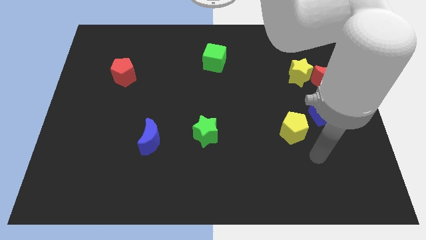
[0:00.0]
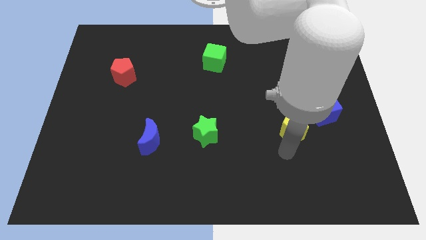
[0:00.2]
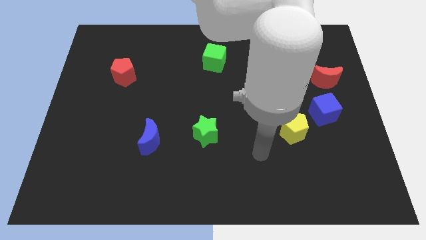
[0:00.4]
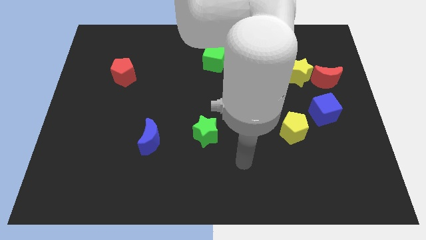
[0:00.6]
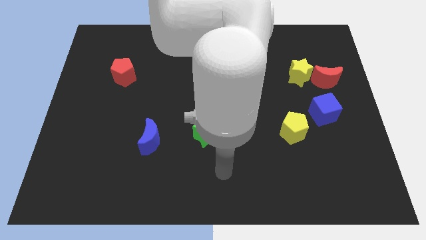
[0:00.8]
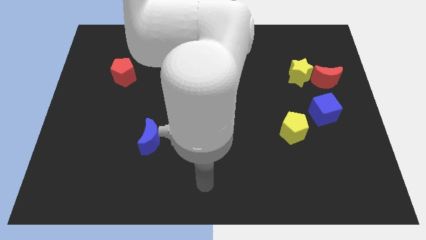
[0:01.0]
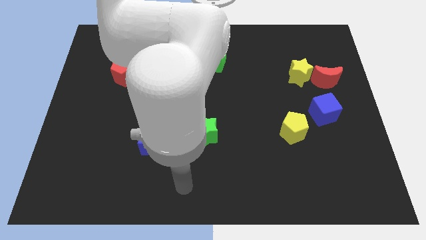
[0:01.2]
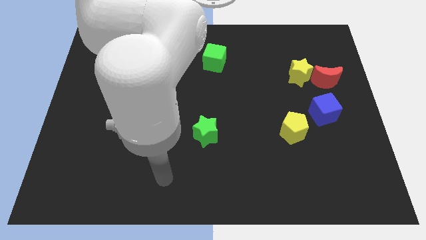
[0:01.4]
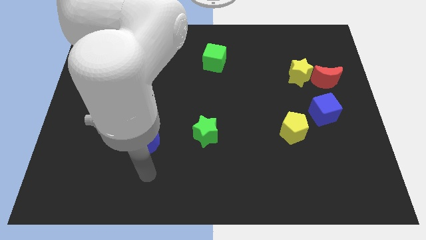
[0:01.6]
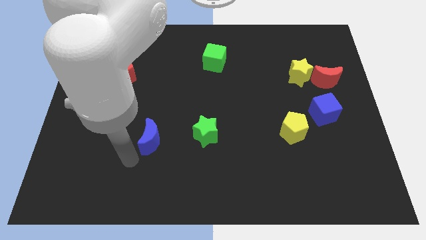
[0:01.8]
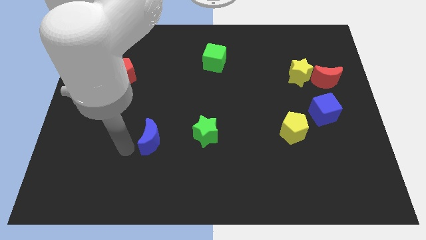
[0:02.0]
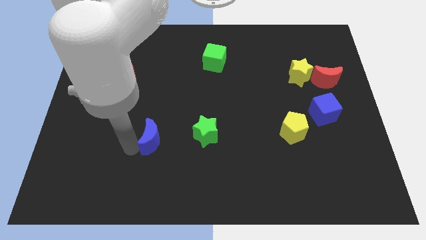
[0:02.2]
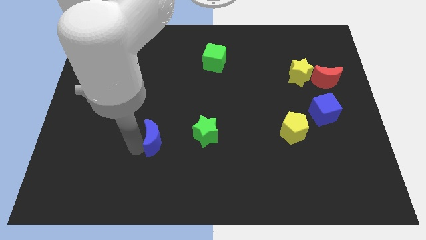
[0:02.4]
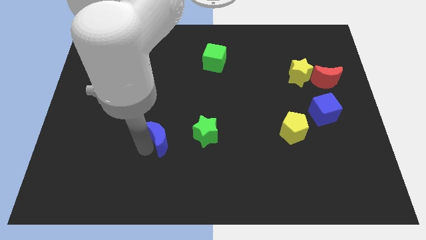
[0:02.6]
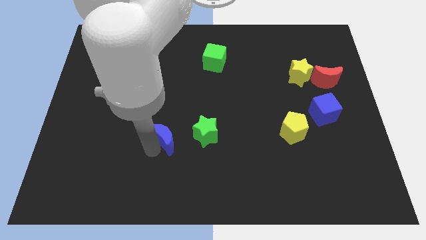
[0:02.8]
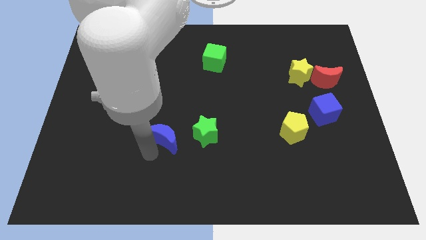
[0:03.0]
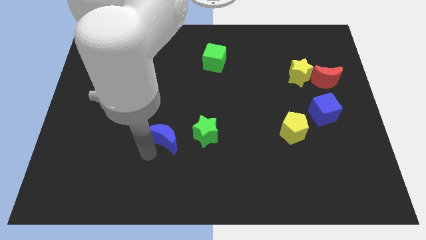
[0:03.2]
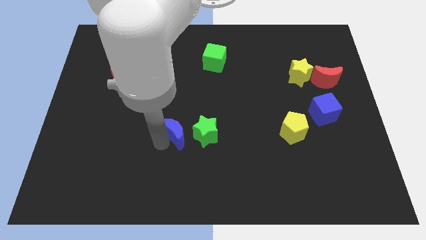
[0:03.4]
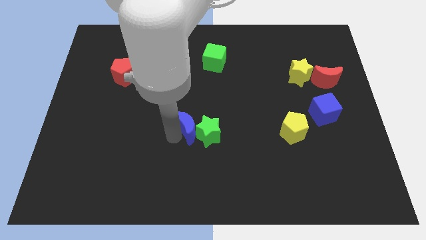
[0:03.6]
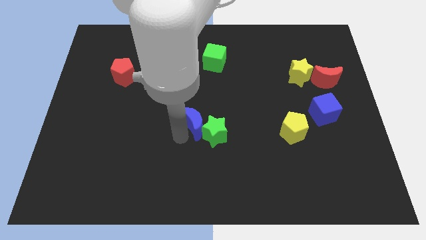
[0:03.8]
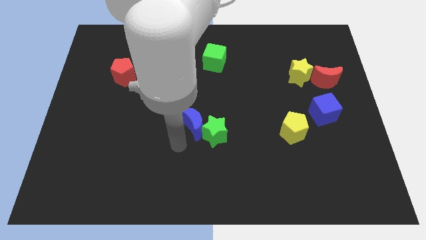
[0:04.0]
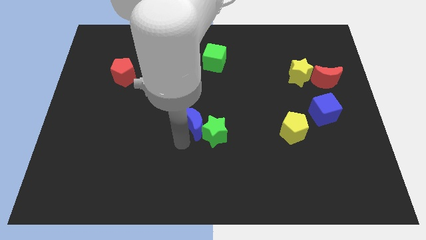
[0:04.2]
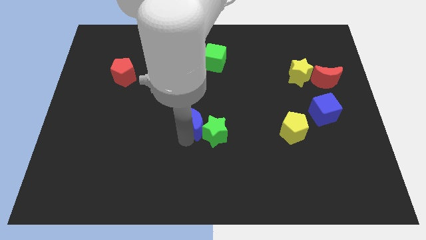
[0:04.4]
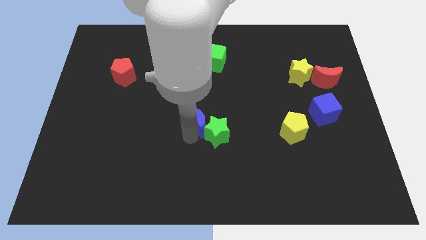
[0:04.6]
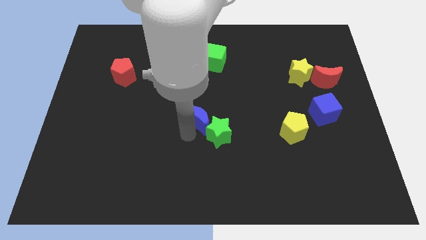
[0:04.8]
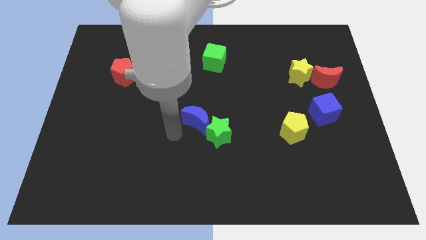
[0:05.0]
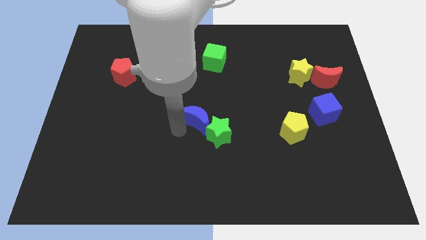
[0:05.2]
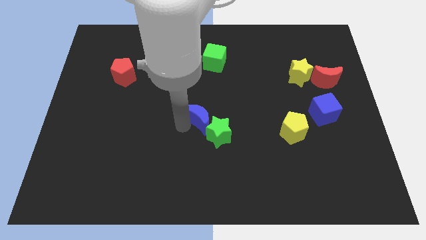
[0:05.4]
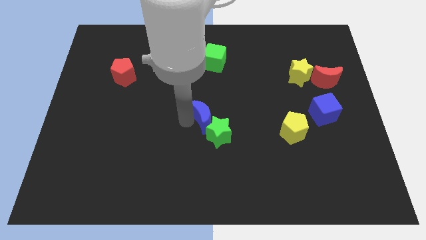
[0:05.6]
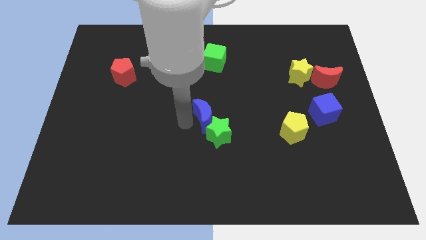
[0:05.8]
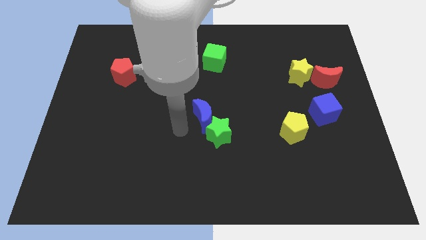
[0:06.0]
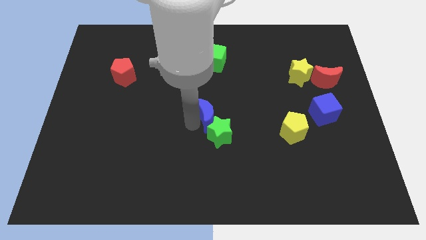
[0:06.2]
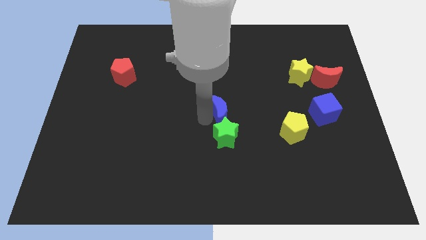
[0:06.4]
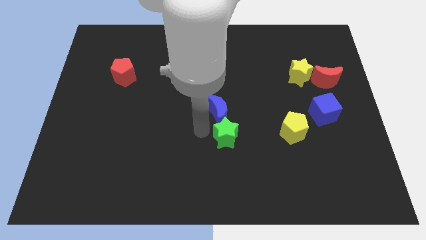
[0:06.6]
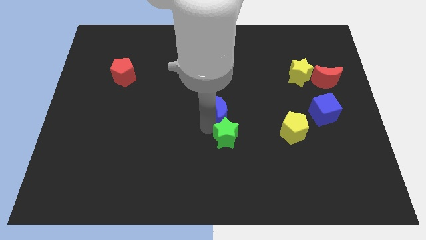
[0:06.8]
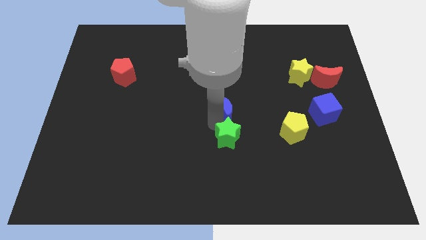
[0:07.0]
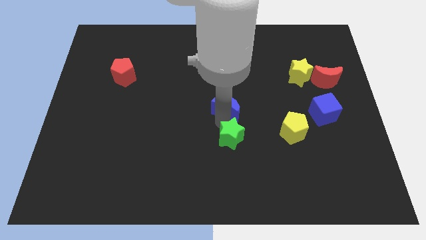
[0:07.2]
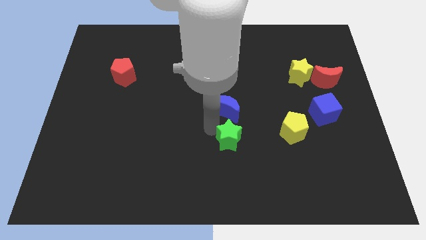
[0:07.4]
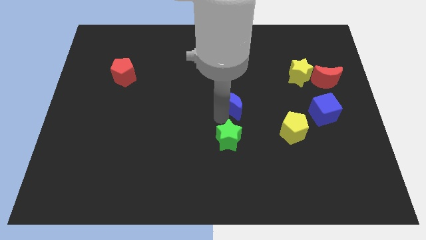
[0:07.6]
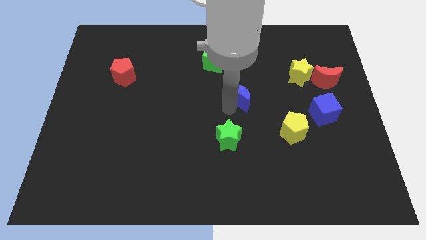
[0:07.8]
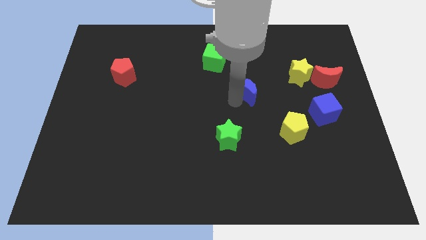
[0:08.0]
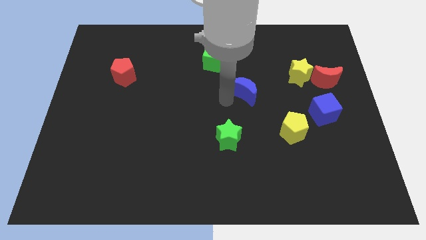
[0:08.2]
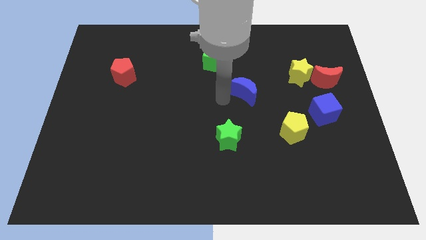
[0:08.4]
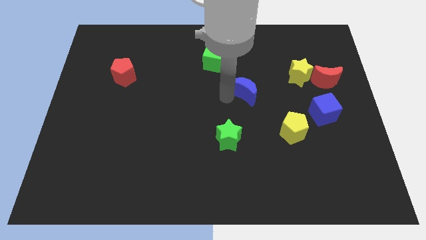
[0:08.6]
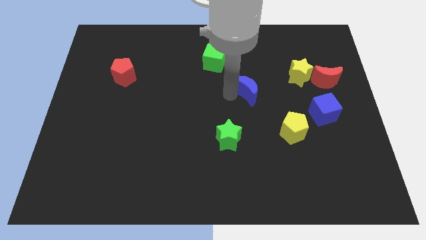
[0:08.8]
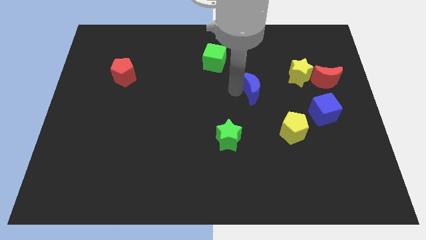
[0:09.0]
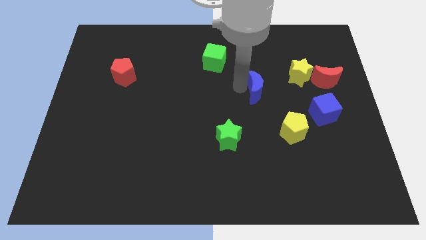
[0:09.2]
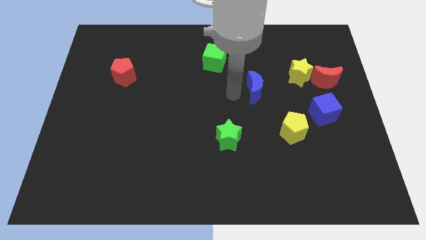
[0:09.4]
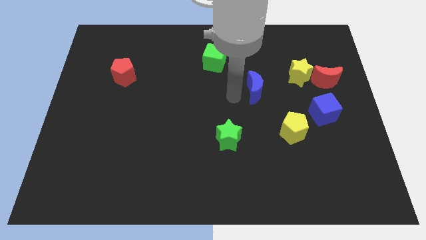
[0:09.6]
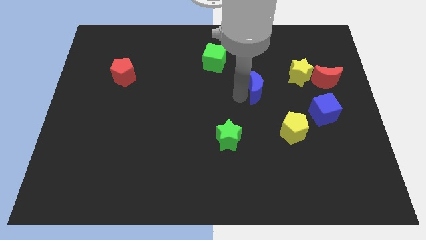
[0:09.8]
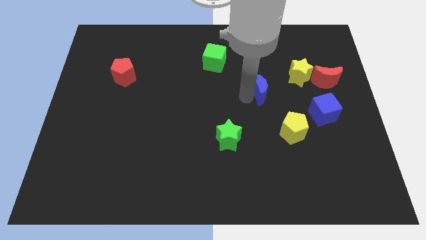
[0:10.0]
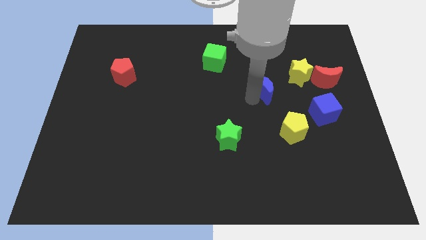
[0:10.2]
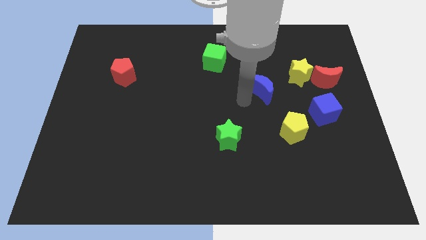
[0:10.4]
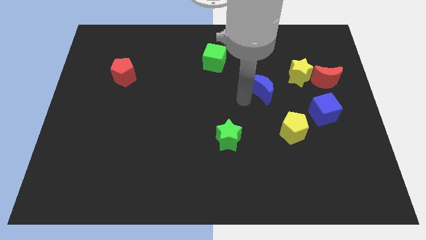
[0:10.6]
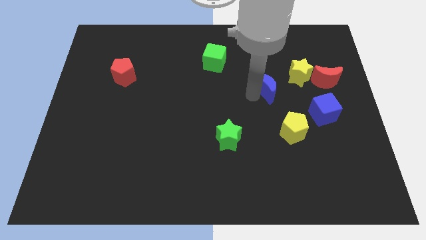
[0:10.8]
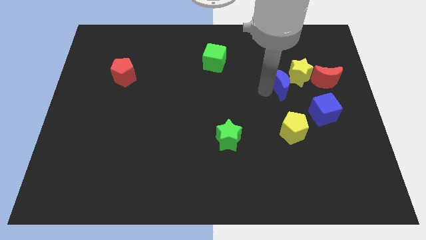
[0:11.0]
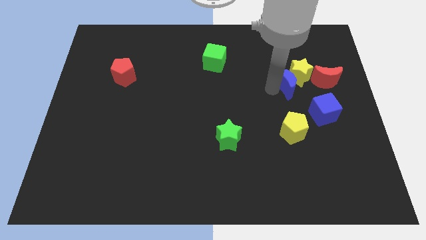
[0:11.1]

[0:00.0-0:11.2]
push the blue moon to the yellow star

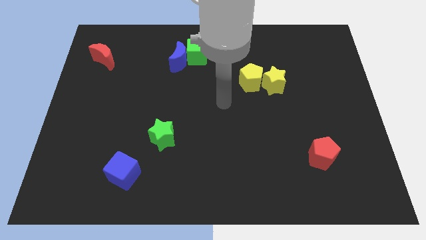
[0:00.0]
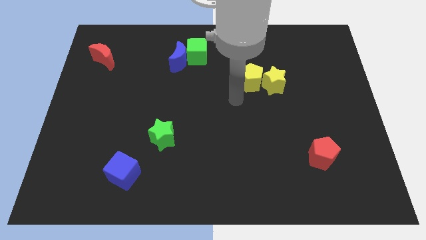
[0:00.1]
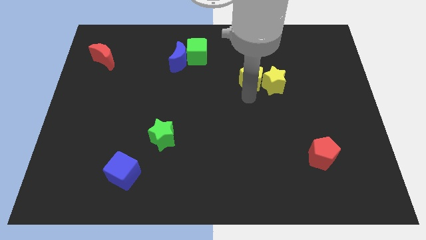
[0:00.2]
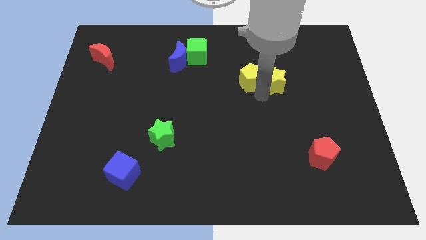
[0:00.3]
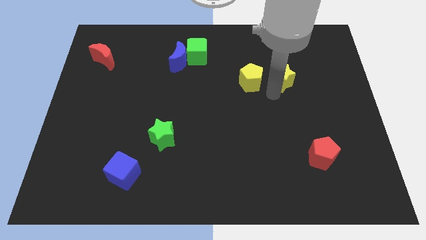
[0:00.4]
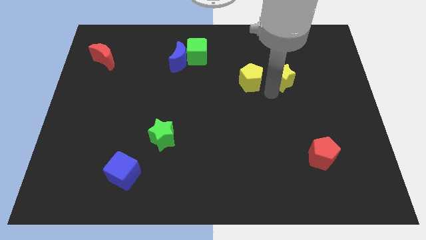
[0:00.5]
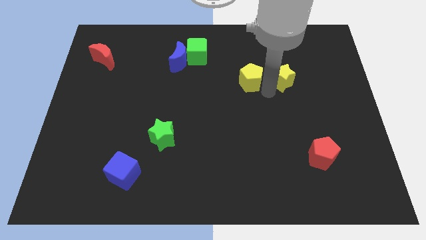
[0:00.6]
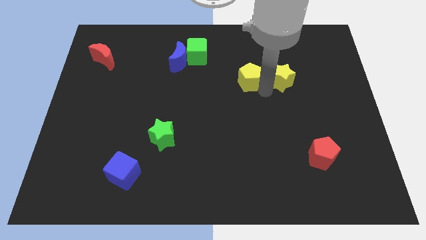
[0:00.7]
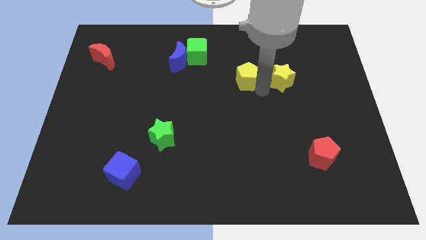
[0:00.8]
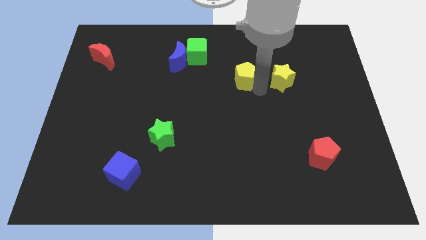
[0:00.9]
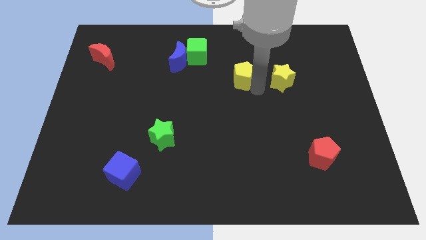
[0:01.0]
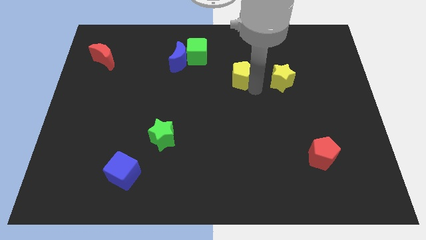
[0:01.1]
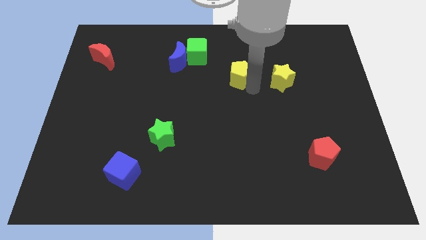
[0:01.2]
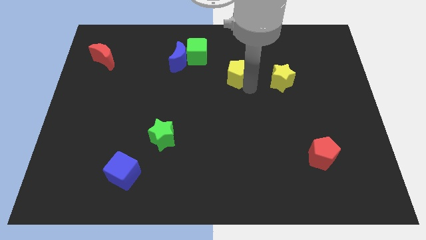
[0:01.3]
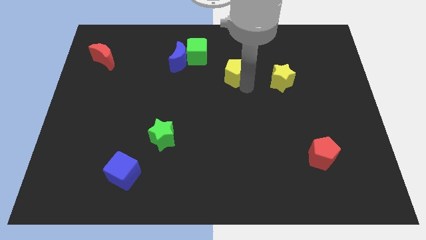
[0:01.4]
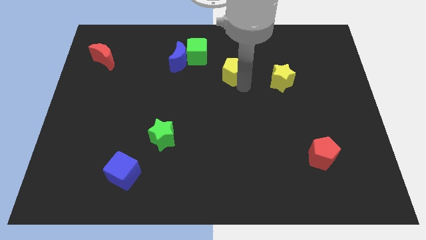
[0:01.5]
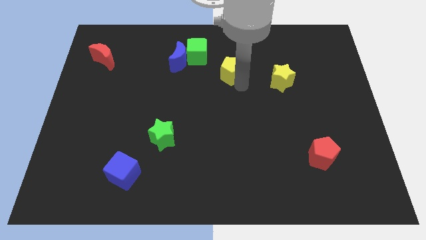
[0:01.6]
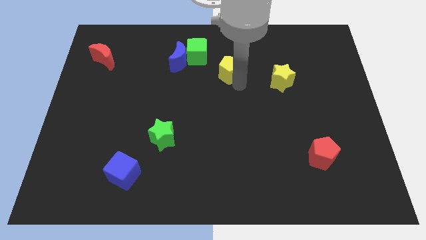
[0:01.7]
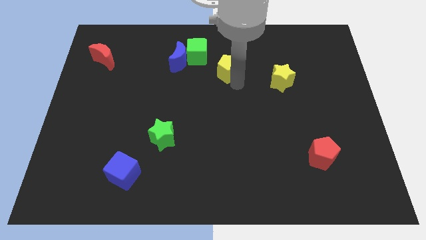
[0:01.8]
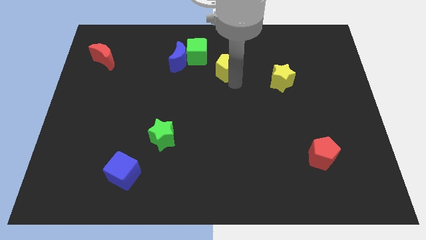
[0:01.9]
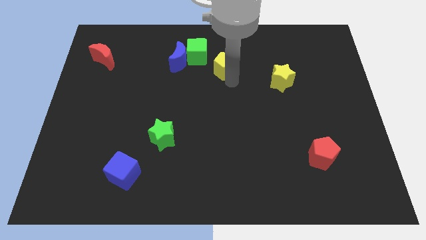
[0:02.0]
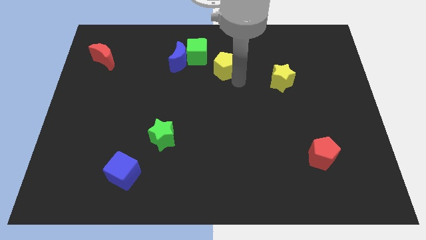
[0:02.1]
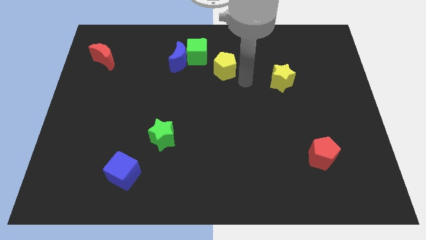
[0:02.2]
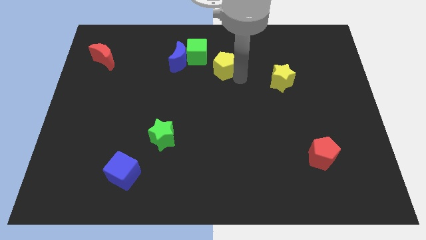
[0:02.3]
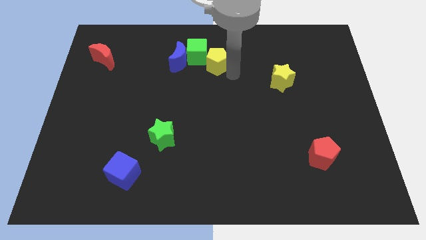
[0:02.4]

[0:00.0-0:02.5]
move the yellow pentagon next to the green cube
